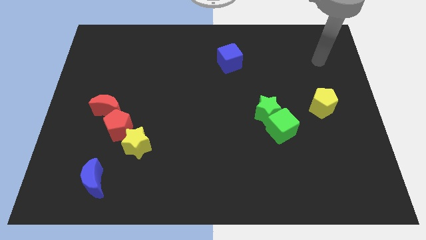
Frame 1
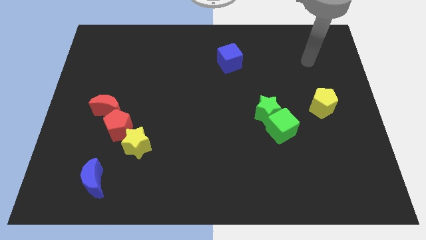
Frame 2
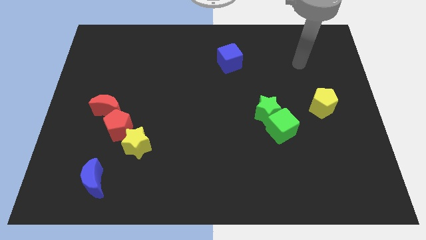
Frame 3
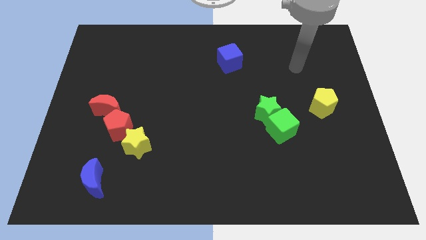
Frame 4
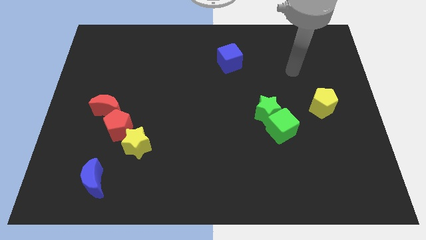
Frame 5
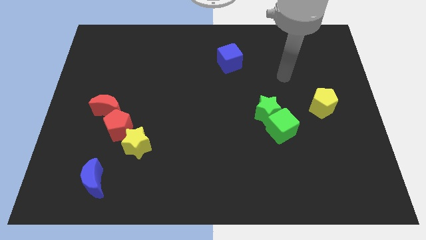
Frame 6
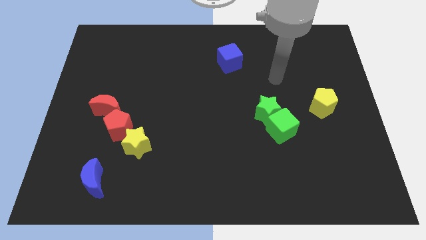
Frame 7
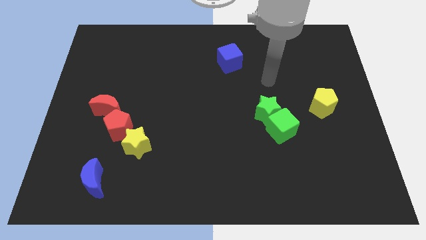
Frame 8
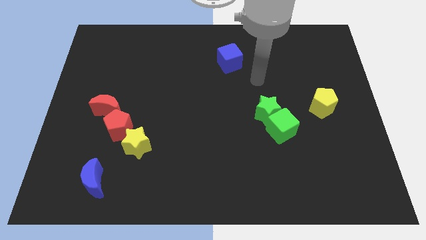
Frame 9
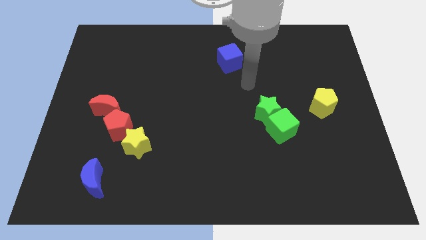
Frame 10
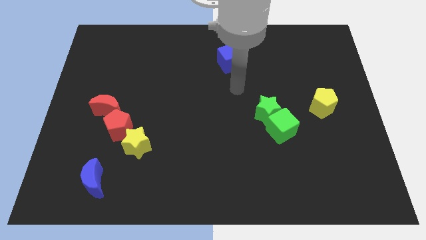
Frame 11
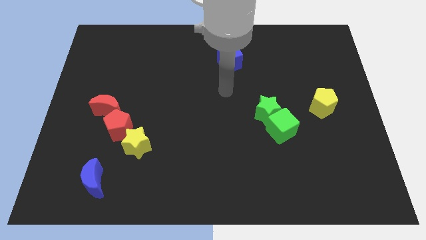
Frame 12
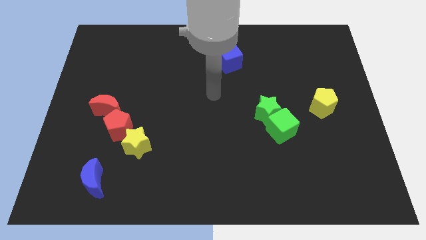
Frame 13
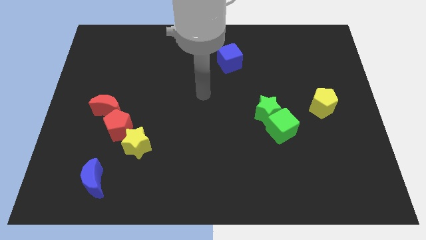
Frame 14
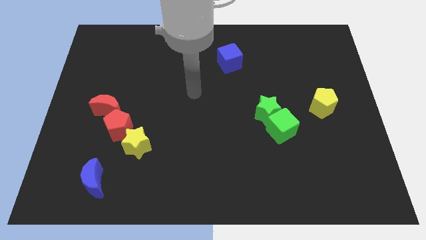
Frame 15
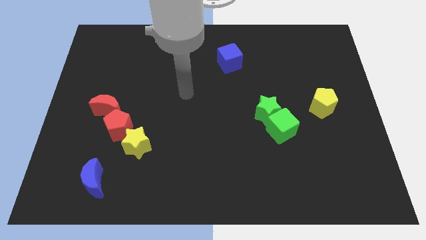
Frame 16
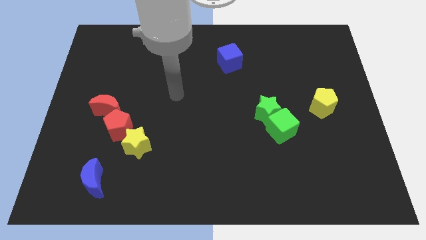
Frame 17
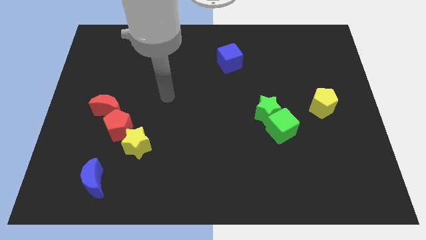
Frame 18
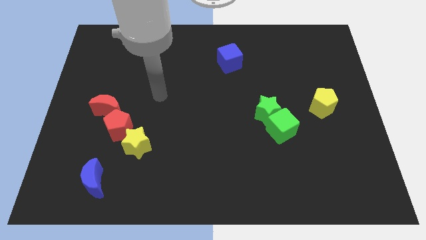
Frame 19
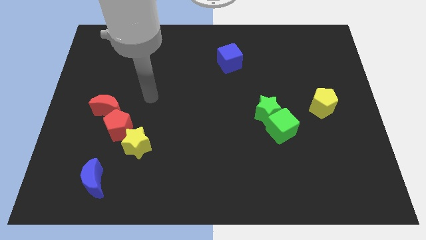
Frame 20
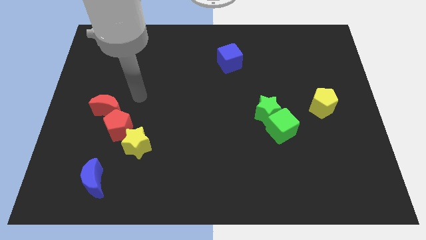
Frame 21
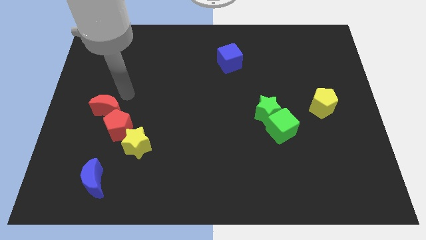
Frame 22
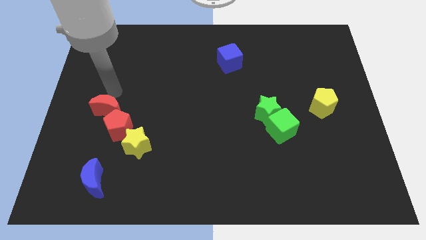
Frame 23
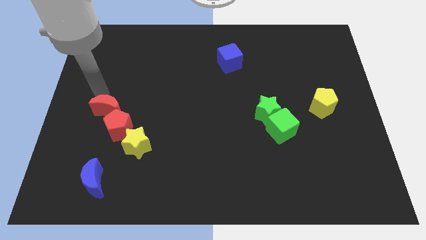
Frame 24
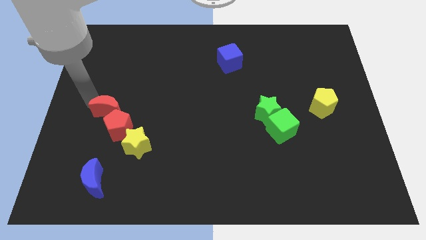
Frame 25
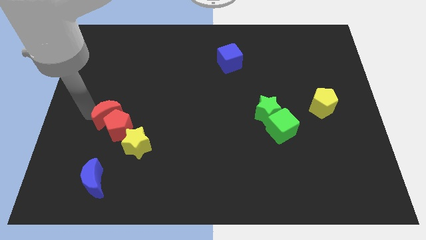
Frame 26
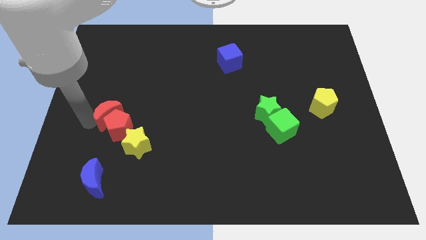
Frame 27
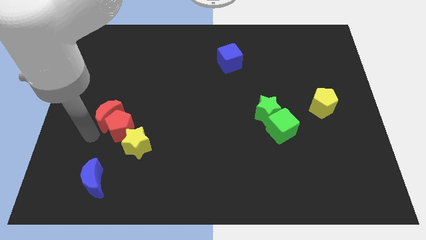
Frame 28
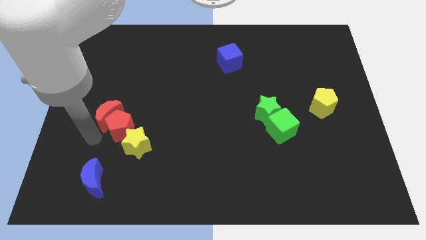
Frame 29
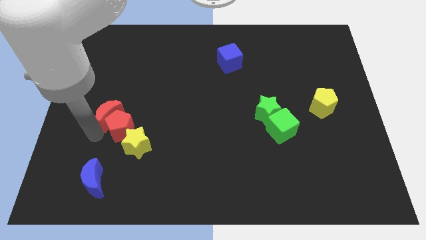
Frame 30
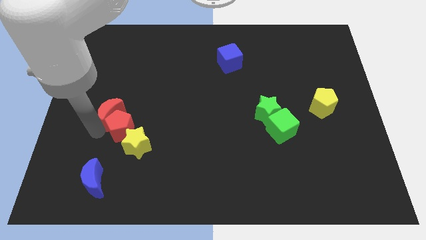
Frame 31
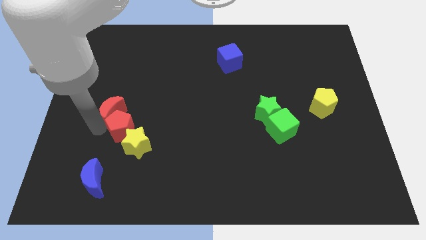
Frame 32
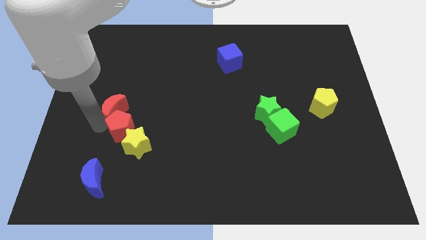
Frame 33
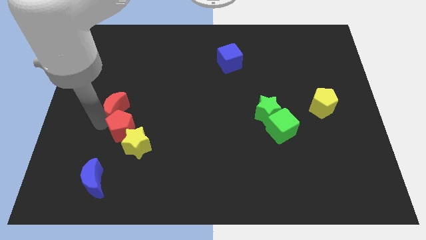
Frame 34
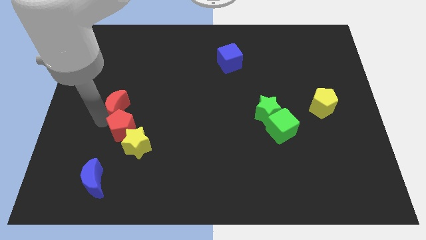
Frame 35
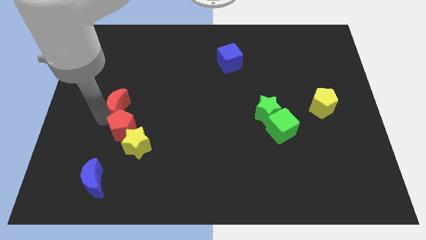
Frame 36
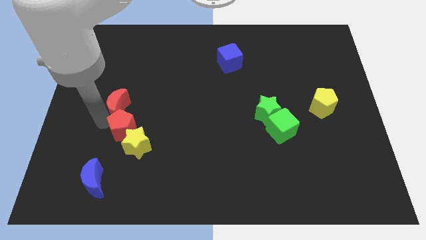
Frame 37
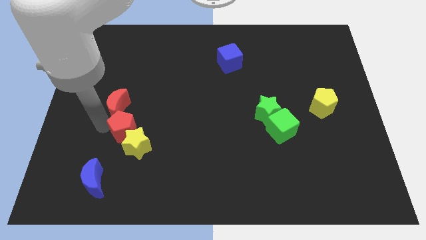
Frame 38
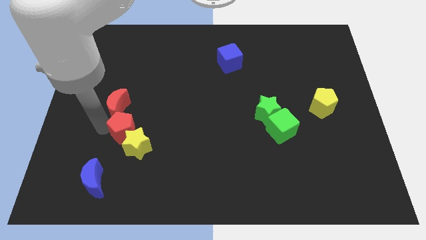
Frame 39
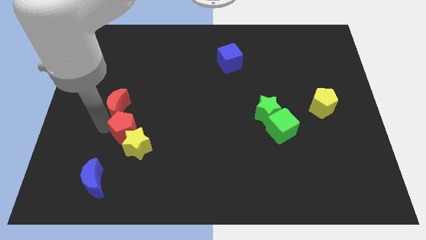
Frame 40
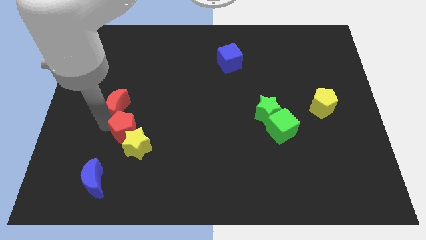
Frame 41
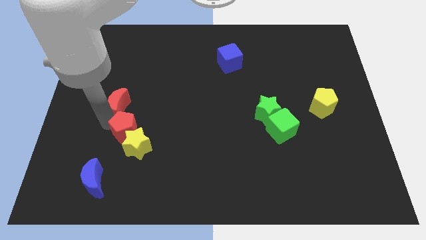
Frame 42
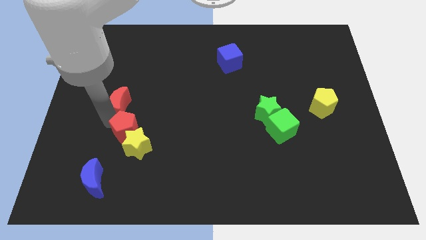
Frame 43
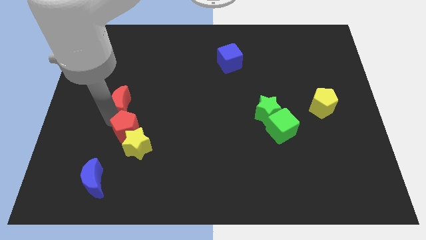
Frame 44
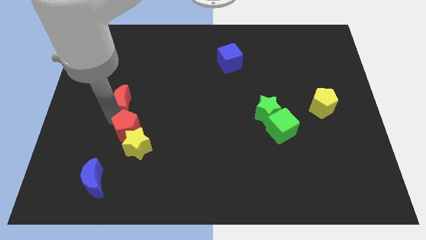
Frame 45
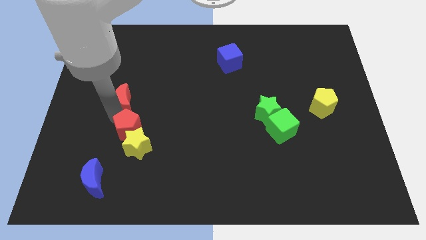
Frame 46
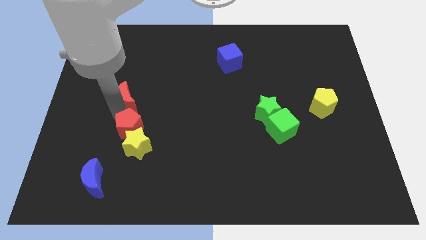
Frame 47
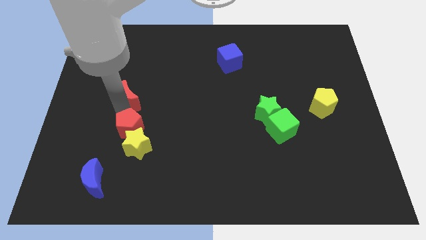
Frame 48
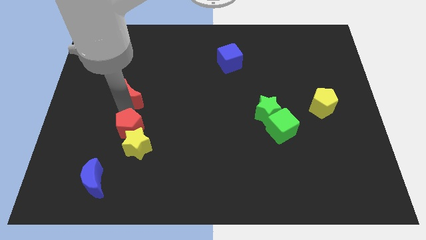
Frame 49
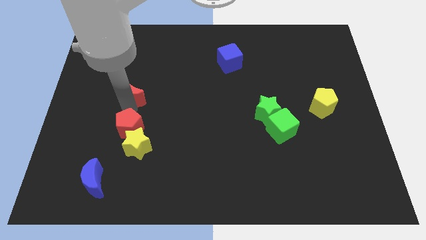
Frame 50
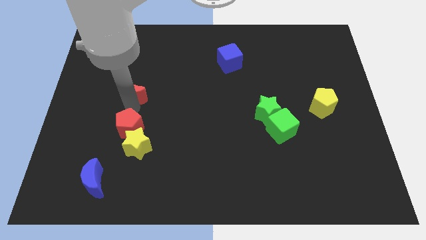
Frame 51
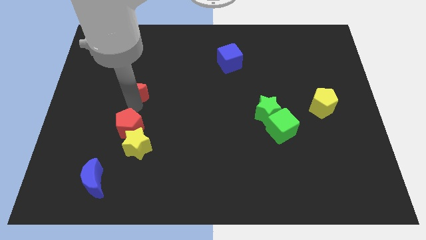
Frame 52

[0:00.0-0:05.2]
push the red moon slightly diagonally upwards and to the right

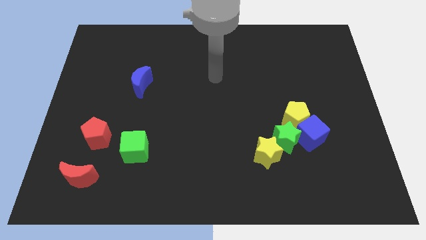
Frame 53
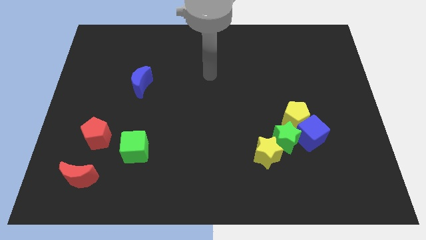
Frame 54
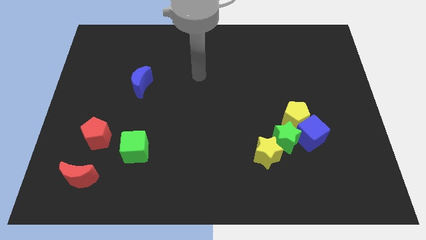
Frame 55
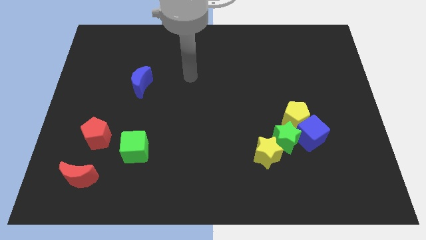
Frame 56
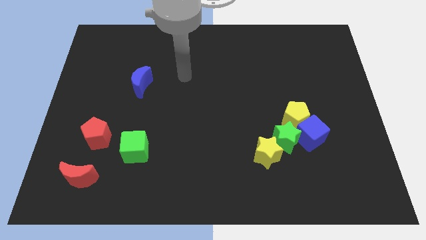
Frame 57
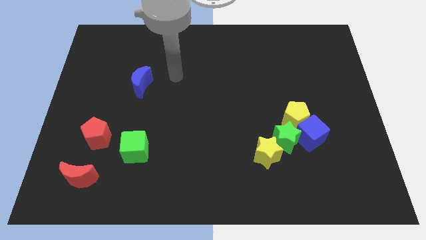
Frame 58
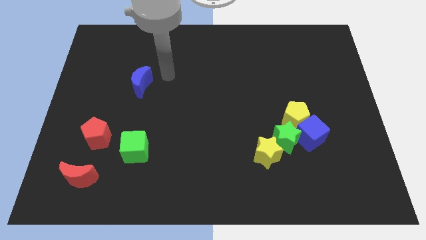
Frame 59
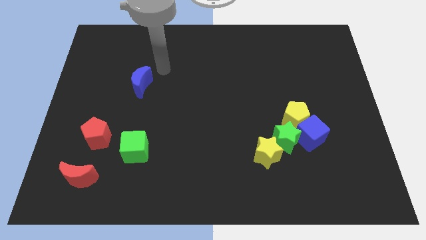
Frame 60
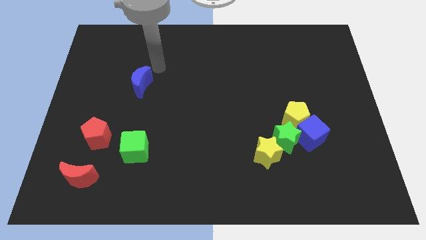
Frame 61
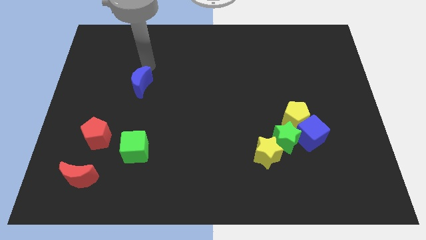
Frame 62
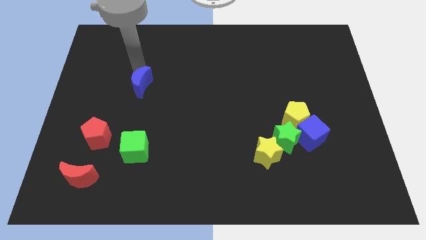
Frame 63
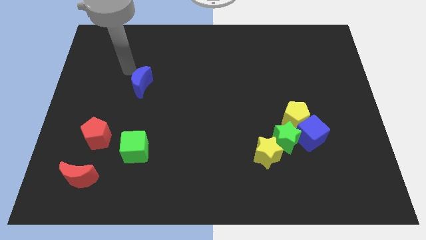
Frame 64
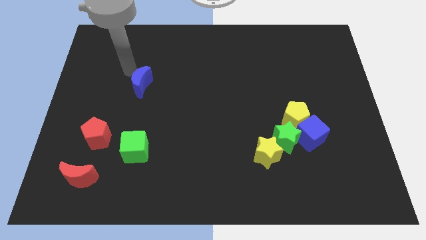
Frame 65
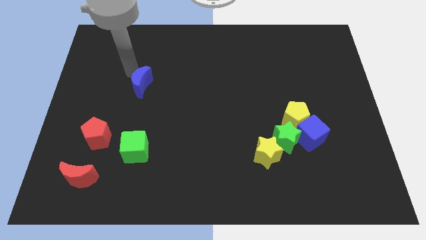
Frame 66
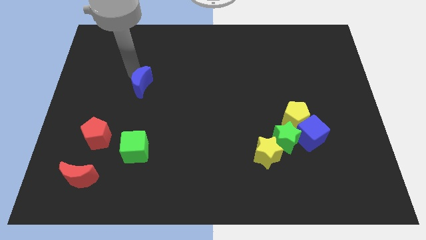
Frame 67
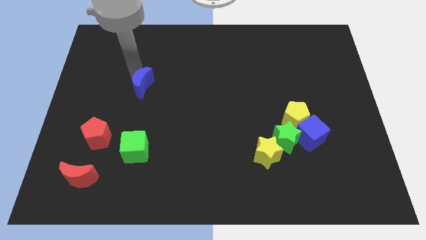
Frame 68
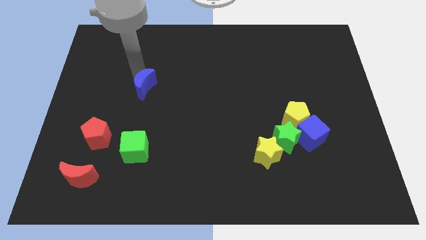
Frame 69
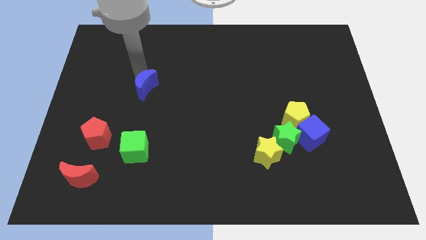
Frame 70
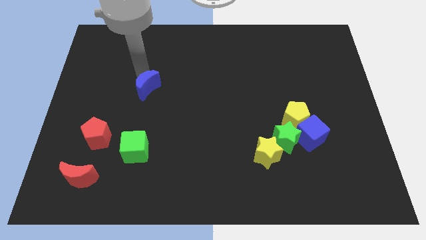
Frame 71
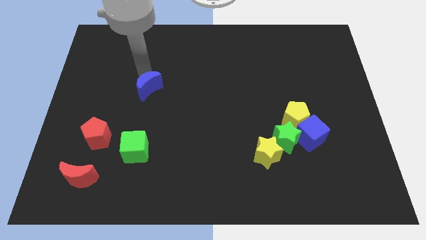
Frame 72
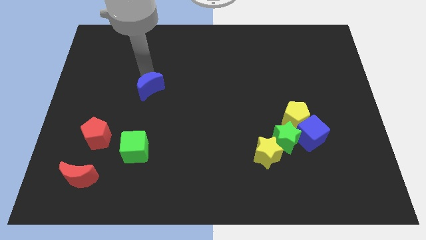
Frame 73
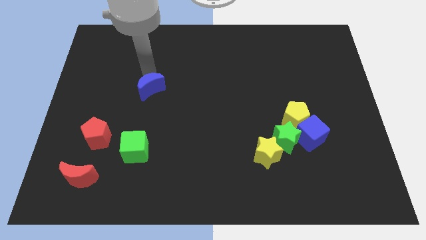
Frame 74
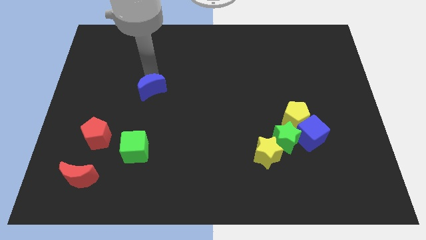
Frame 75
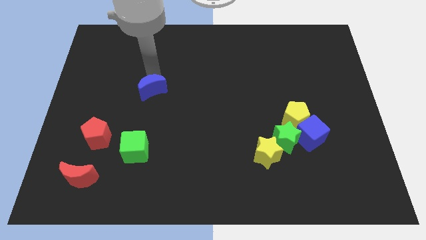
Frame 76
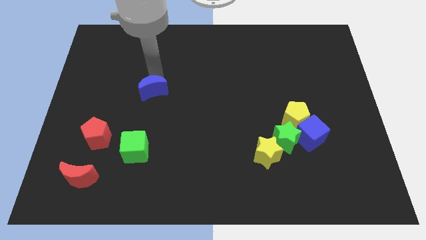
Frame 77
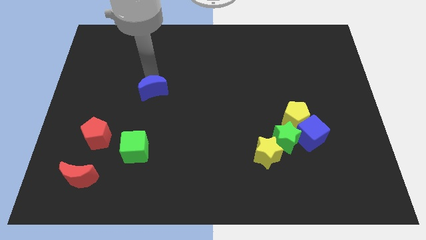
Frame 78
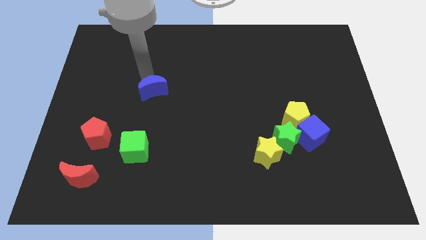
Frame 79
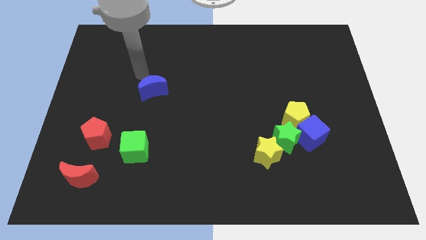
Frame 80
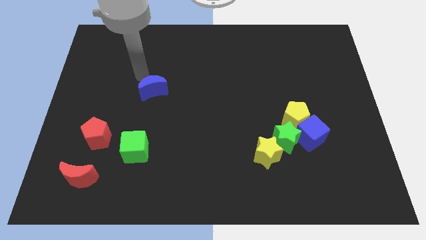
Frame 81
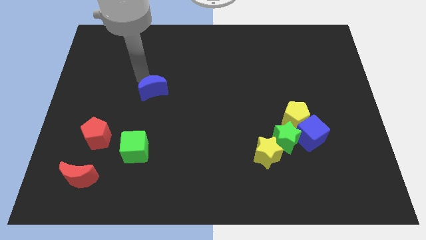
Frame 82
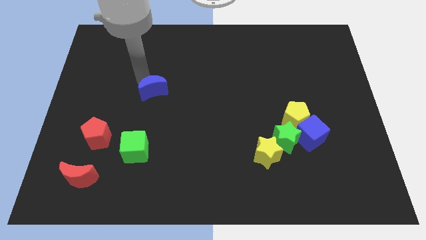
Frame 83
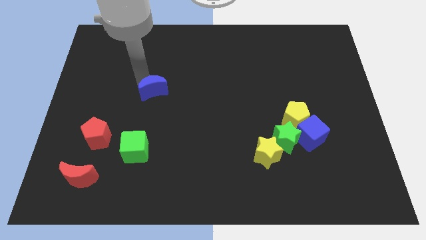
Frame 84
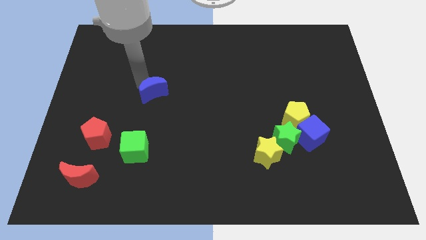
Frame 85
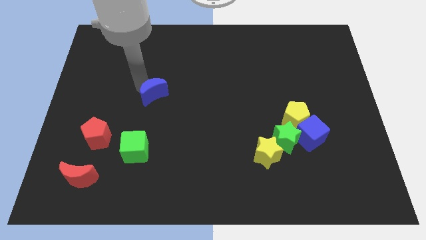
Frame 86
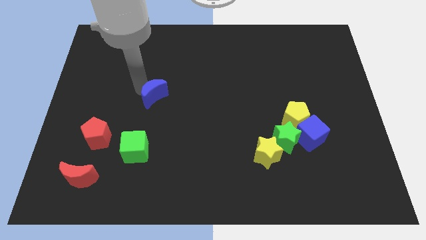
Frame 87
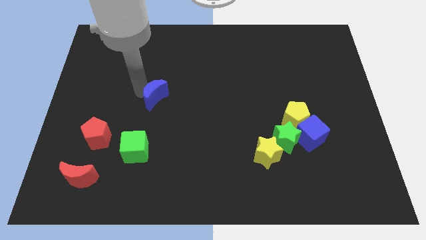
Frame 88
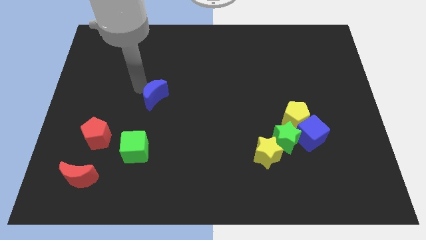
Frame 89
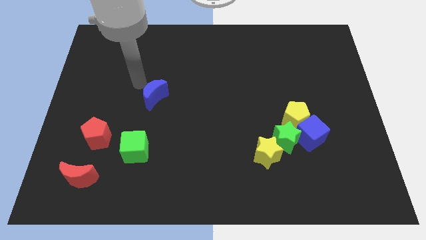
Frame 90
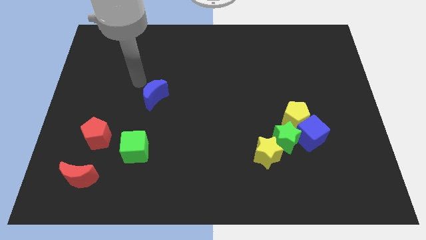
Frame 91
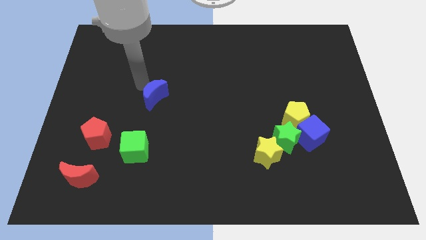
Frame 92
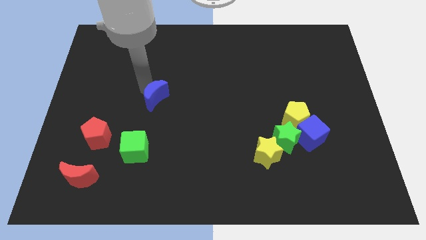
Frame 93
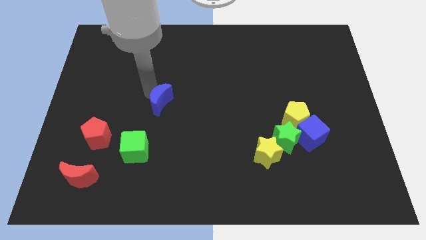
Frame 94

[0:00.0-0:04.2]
slide the blue moon down and right diagonally slightly
